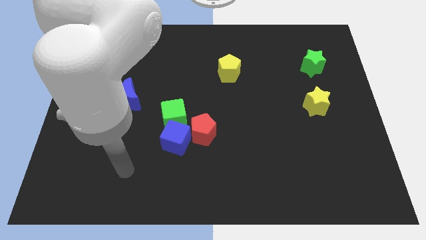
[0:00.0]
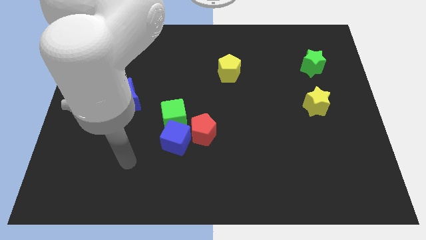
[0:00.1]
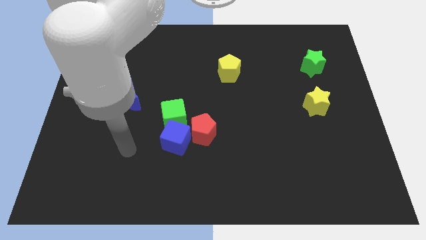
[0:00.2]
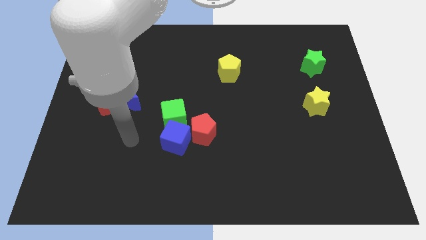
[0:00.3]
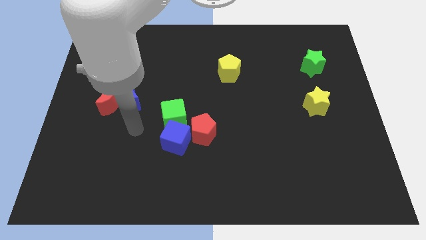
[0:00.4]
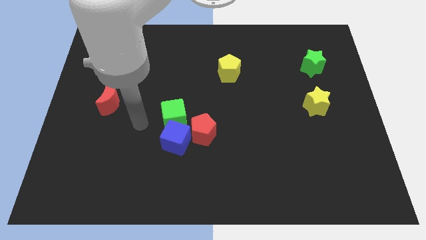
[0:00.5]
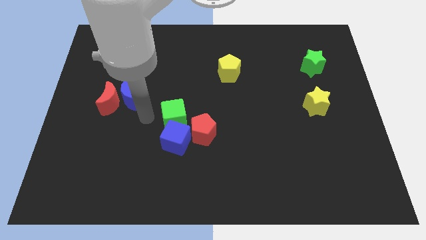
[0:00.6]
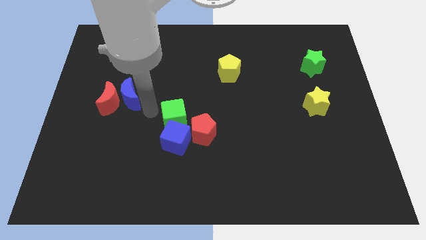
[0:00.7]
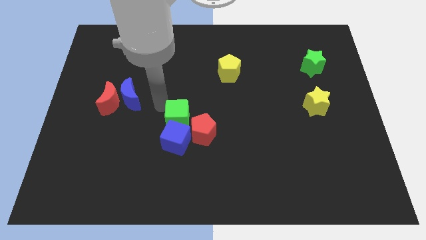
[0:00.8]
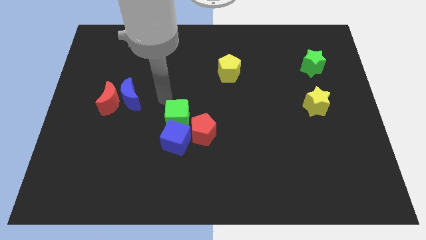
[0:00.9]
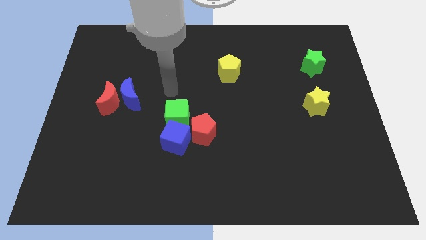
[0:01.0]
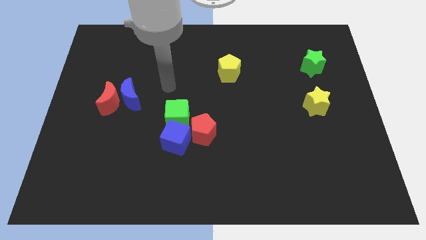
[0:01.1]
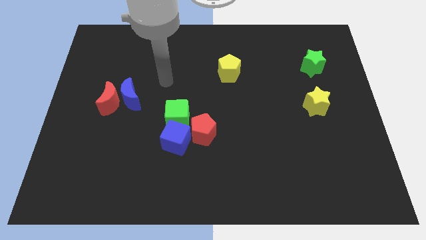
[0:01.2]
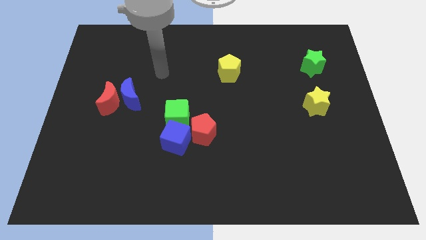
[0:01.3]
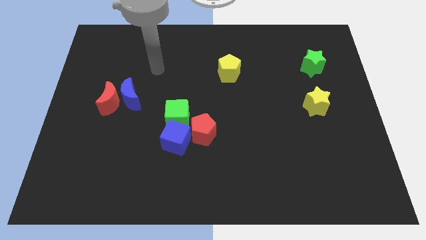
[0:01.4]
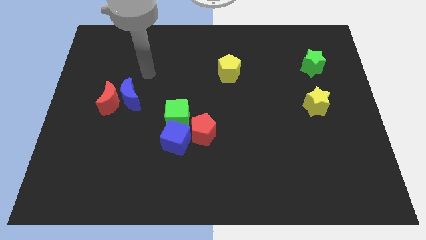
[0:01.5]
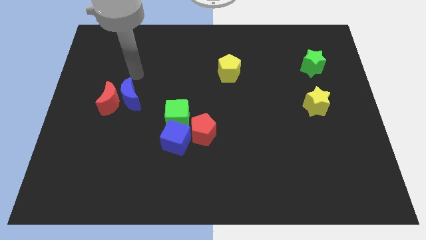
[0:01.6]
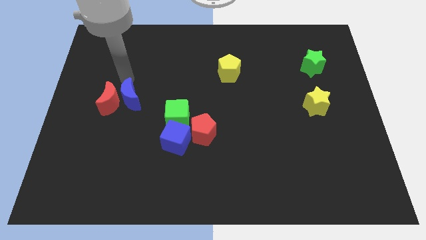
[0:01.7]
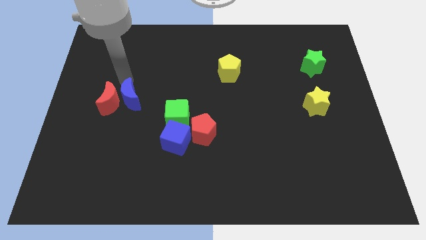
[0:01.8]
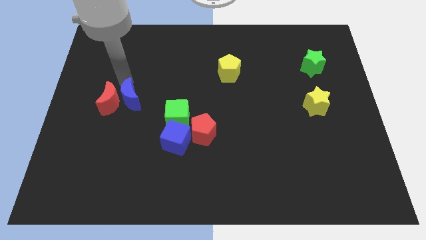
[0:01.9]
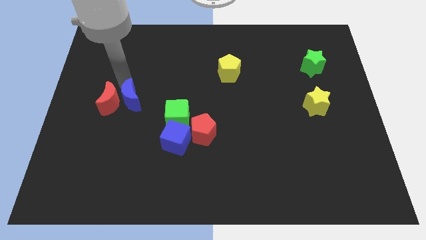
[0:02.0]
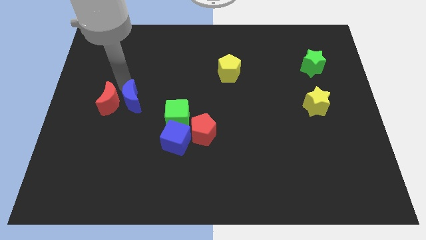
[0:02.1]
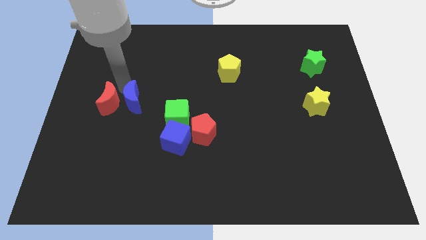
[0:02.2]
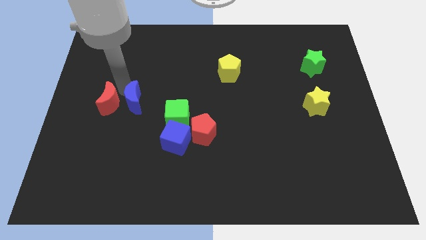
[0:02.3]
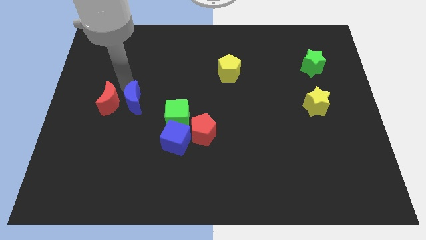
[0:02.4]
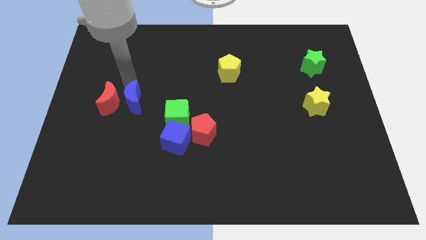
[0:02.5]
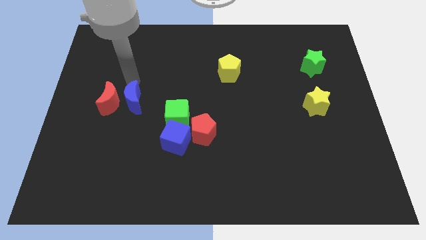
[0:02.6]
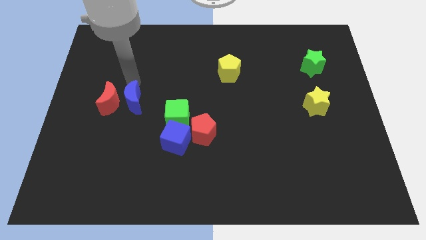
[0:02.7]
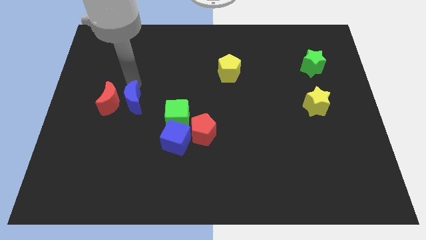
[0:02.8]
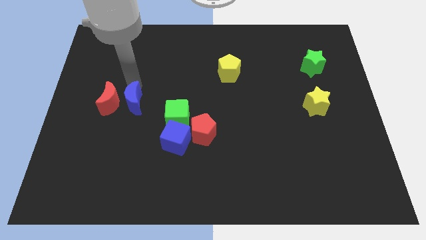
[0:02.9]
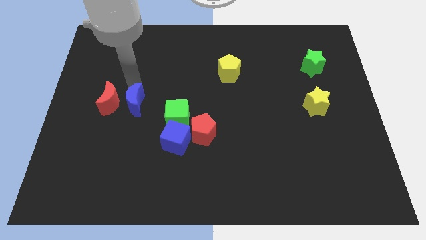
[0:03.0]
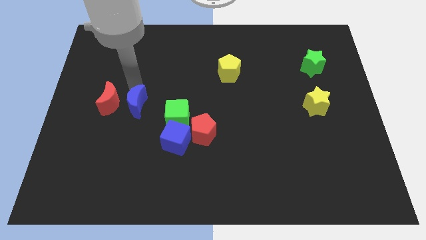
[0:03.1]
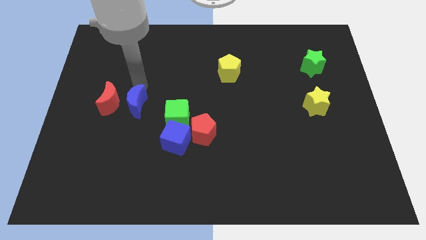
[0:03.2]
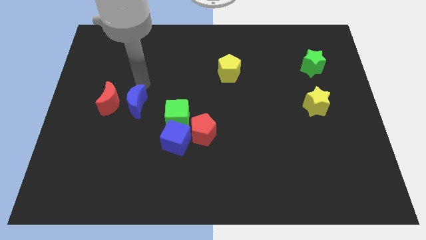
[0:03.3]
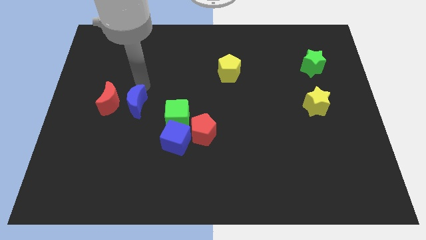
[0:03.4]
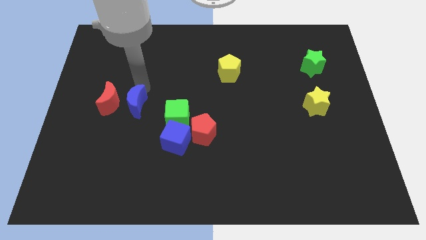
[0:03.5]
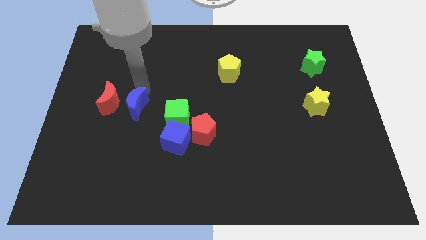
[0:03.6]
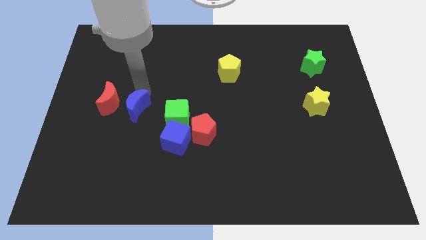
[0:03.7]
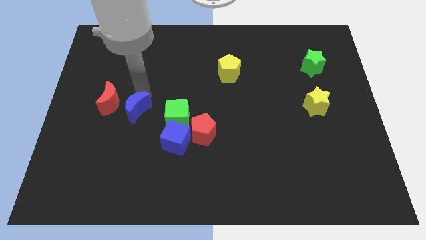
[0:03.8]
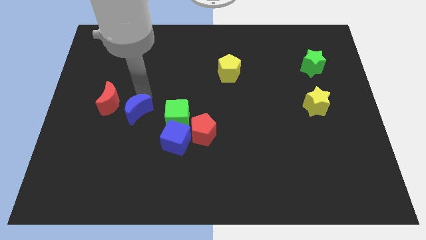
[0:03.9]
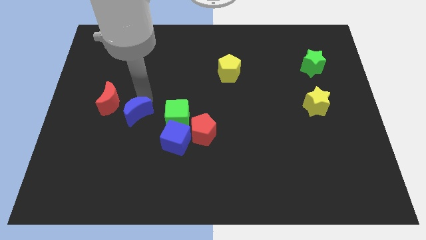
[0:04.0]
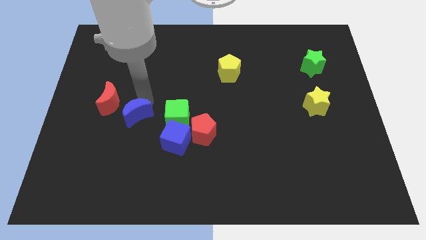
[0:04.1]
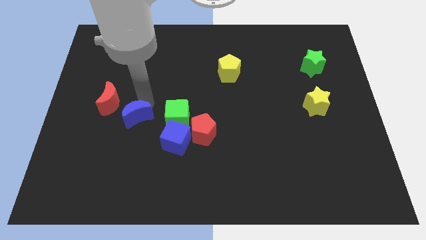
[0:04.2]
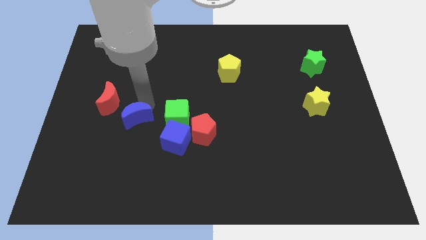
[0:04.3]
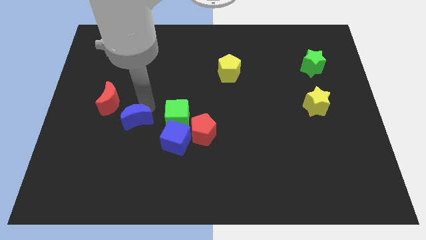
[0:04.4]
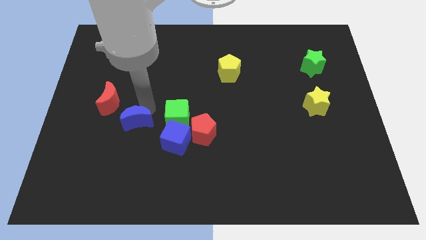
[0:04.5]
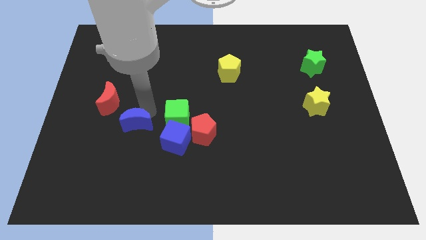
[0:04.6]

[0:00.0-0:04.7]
move the blue moon a little down

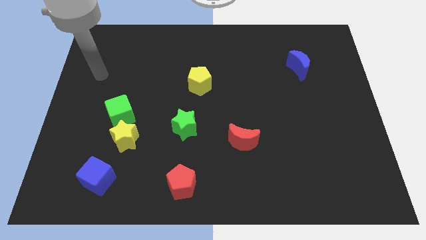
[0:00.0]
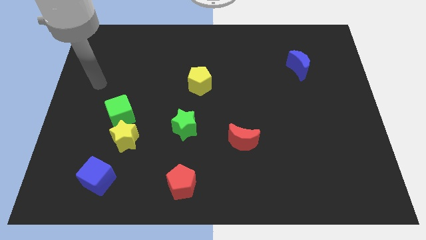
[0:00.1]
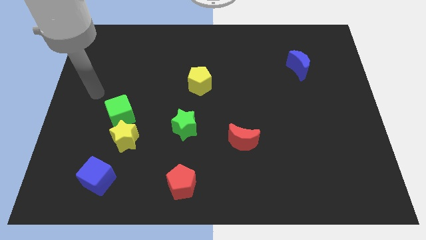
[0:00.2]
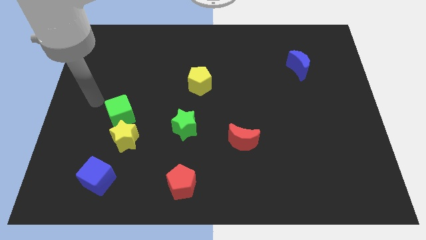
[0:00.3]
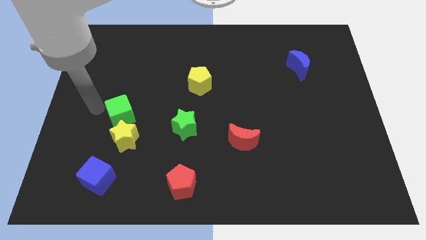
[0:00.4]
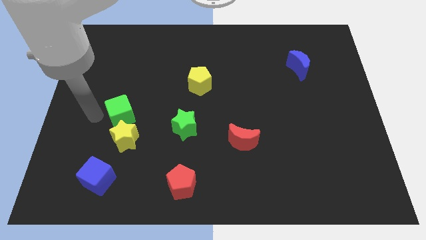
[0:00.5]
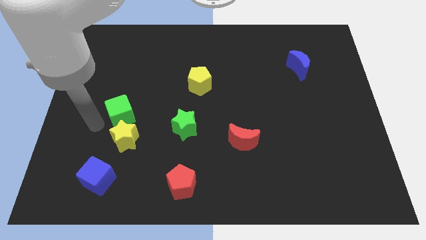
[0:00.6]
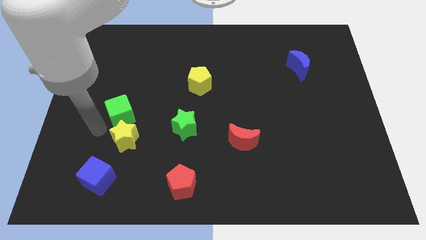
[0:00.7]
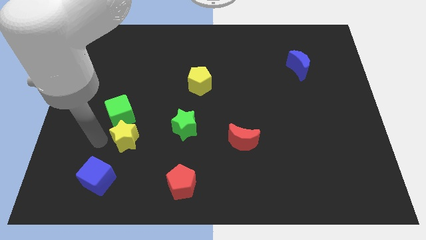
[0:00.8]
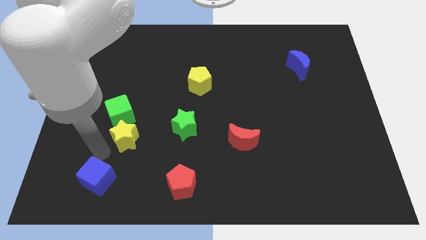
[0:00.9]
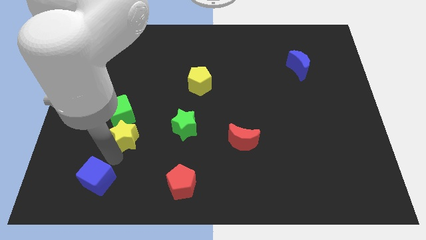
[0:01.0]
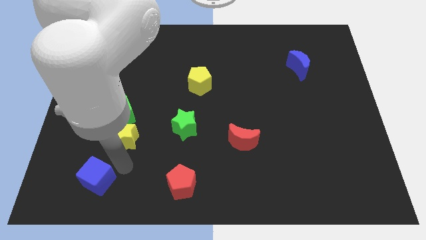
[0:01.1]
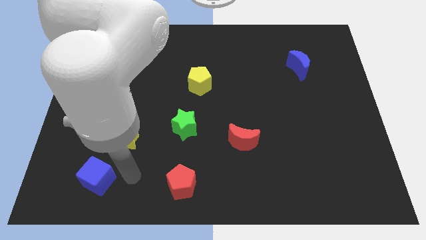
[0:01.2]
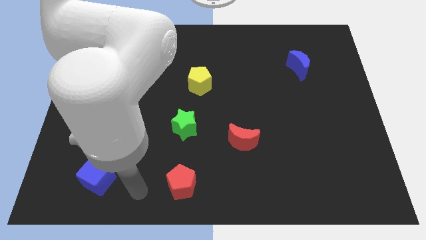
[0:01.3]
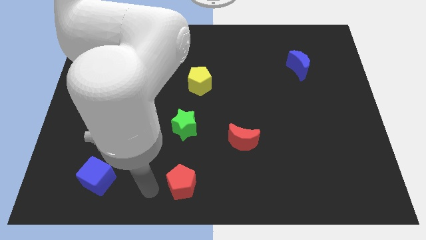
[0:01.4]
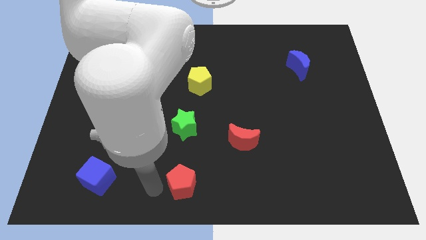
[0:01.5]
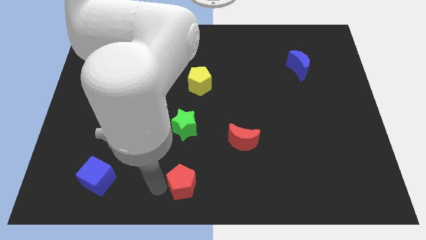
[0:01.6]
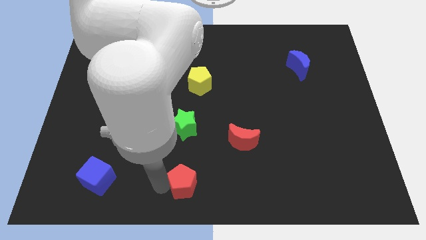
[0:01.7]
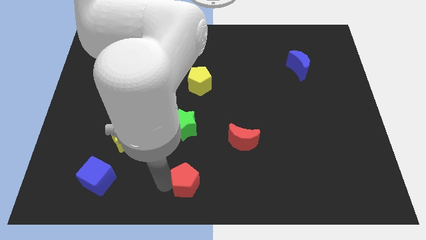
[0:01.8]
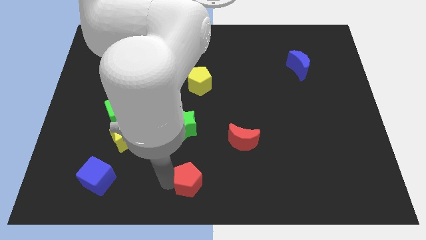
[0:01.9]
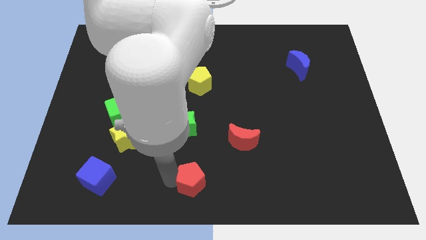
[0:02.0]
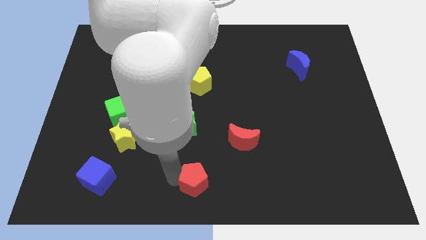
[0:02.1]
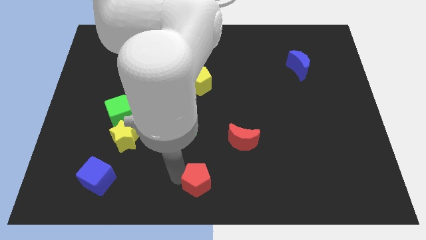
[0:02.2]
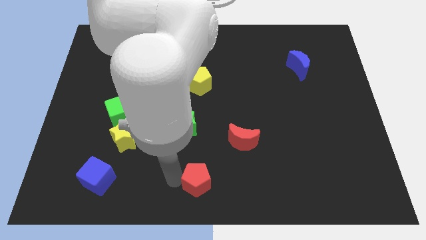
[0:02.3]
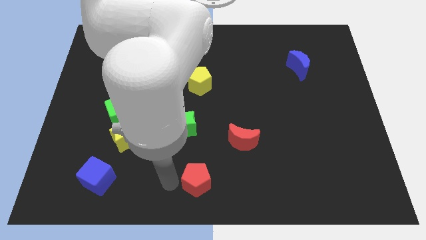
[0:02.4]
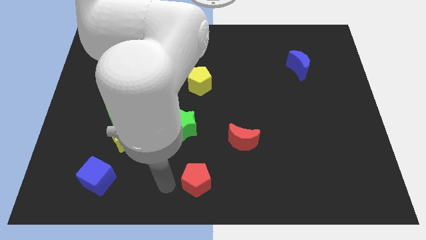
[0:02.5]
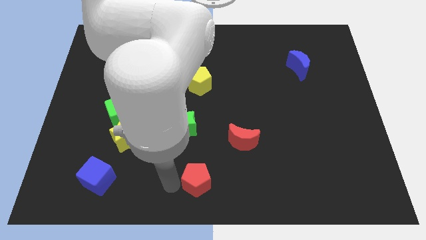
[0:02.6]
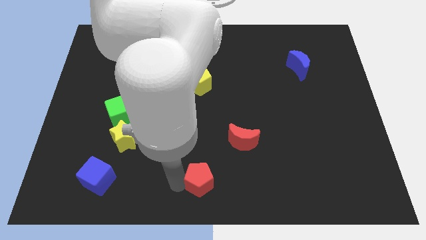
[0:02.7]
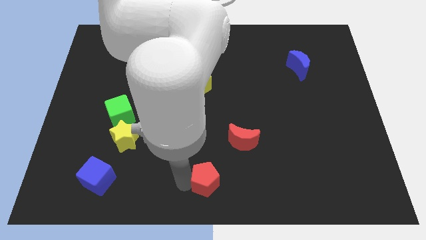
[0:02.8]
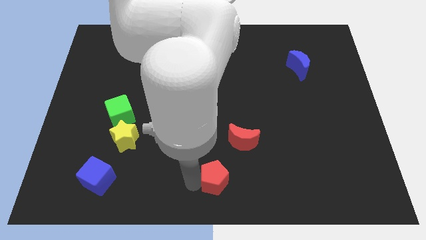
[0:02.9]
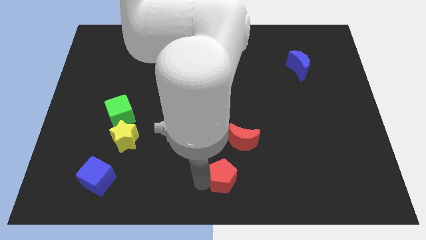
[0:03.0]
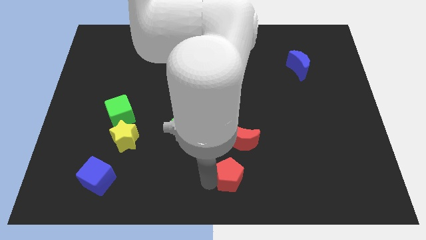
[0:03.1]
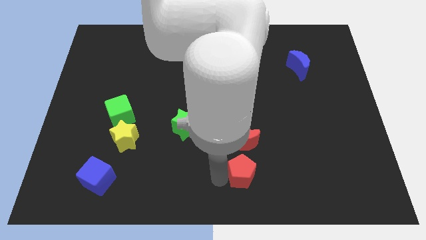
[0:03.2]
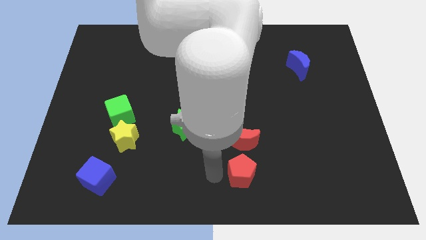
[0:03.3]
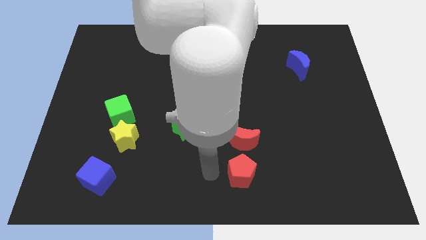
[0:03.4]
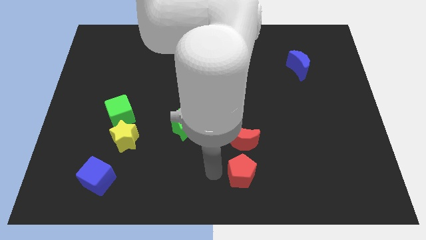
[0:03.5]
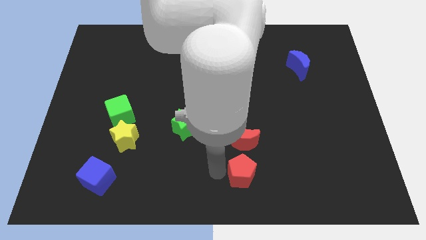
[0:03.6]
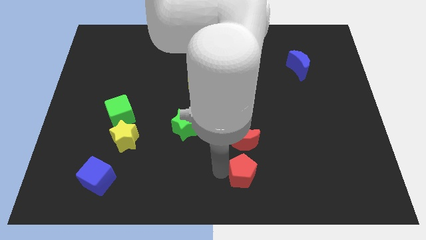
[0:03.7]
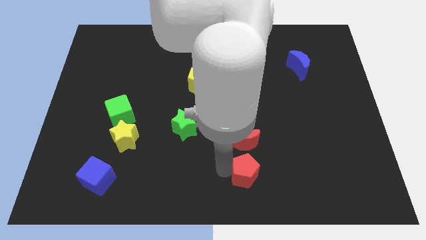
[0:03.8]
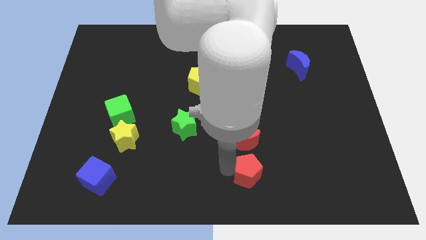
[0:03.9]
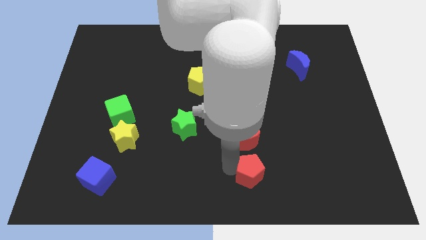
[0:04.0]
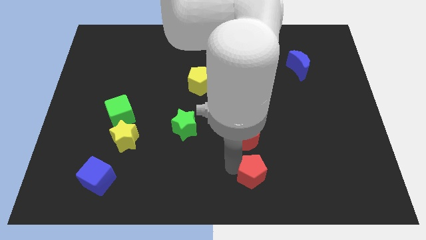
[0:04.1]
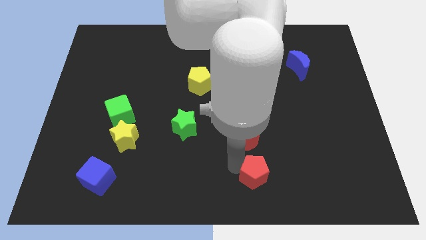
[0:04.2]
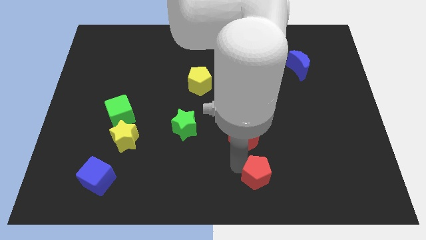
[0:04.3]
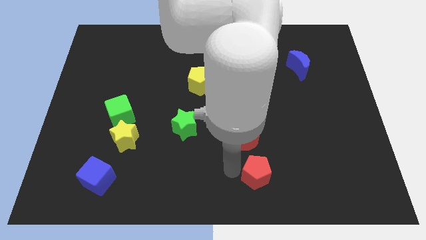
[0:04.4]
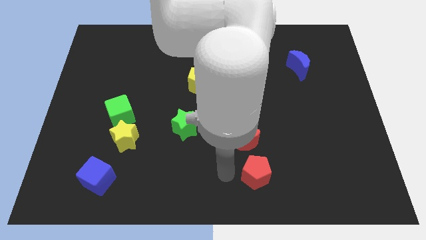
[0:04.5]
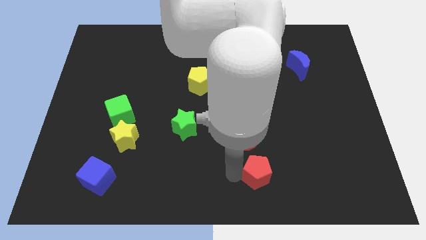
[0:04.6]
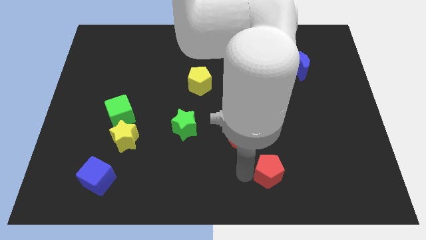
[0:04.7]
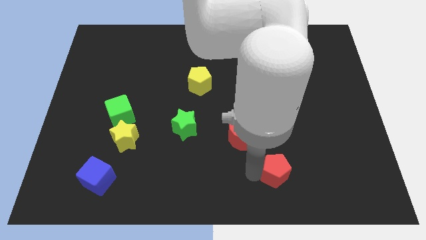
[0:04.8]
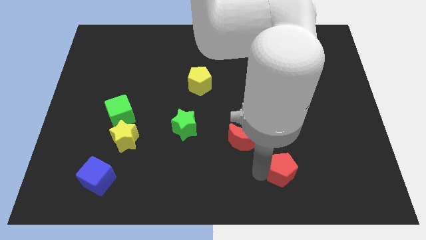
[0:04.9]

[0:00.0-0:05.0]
push the red pentagon right
